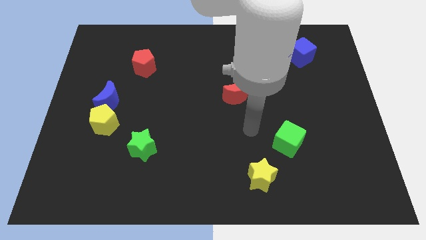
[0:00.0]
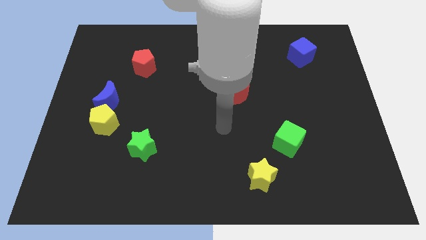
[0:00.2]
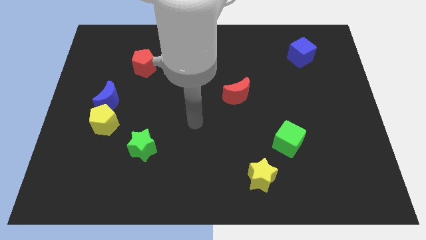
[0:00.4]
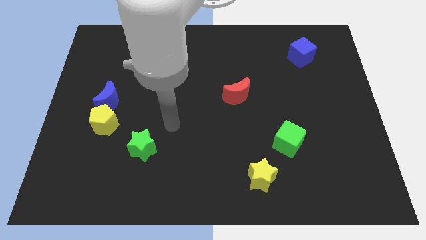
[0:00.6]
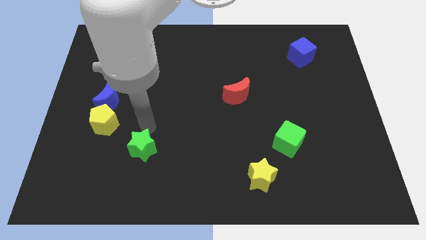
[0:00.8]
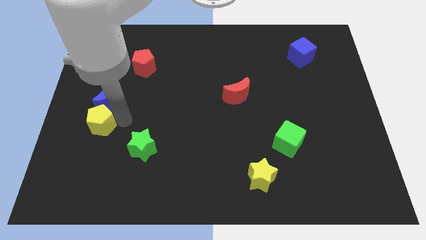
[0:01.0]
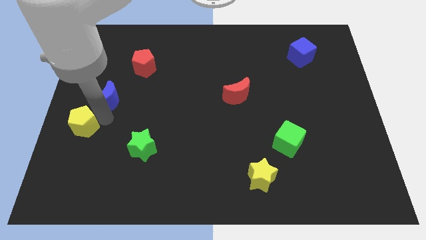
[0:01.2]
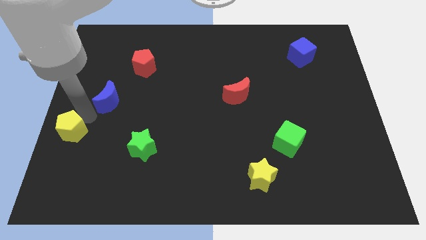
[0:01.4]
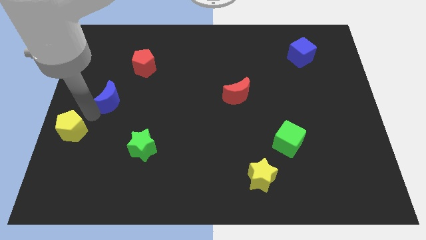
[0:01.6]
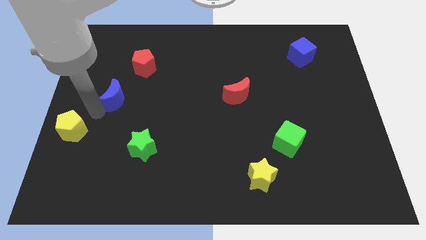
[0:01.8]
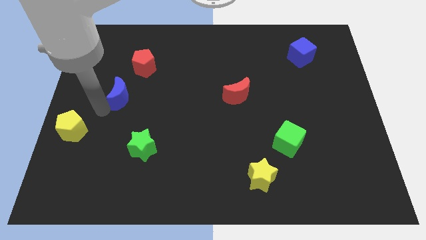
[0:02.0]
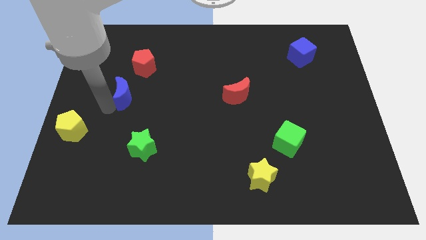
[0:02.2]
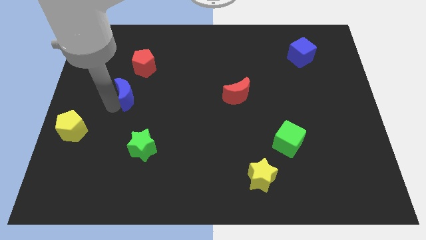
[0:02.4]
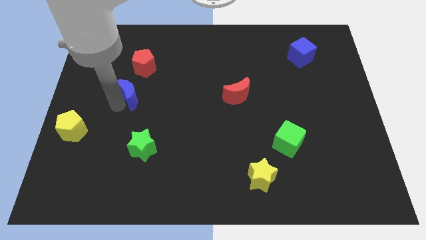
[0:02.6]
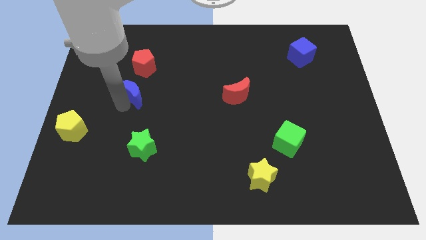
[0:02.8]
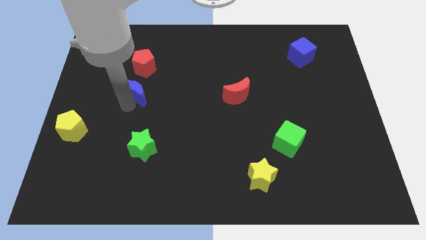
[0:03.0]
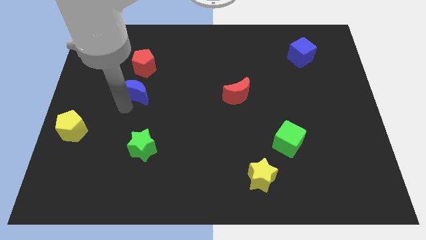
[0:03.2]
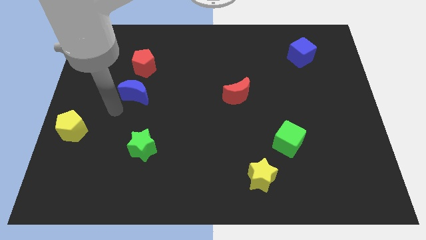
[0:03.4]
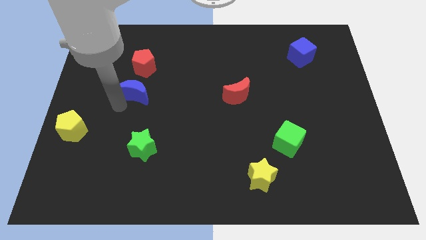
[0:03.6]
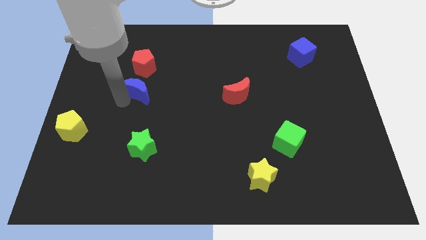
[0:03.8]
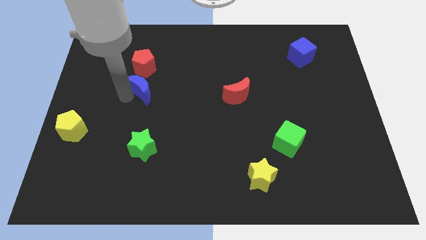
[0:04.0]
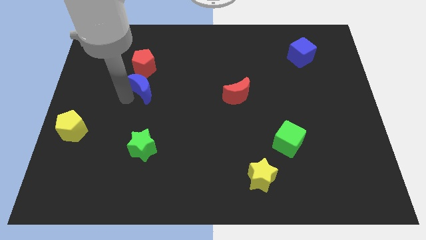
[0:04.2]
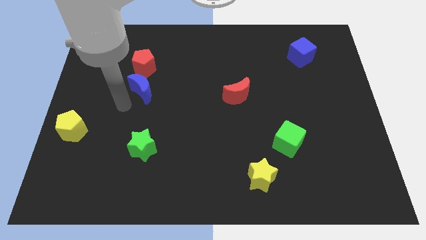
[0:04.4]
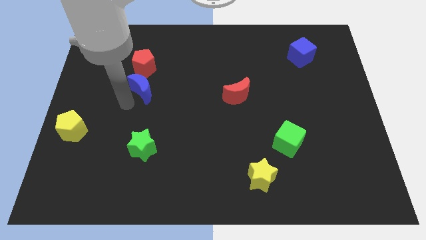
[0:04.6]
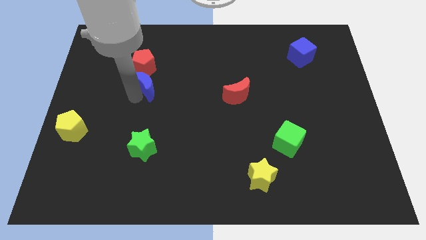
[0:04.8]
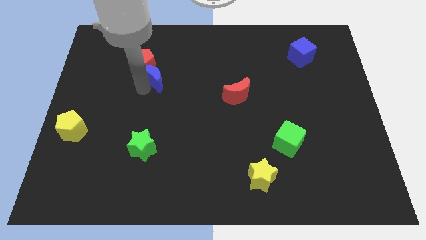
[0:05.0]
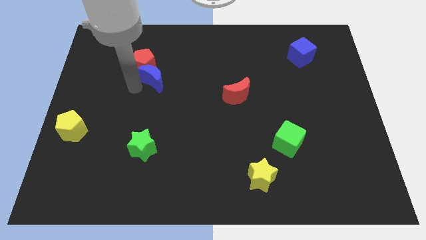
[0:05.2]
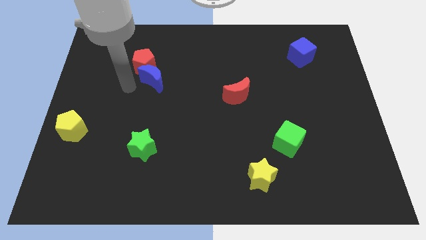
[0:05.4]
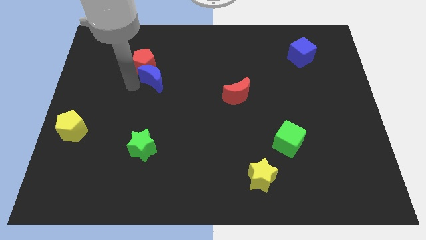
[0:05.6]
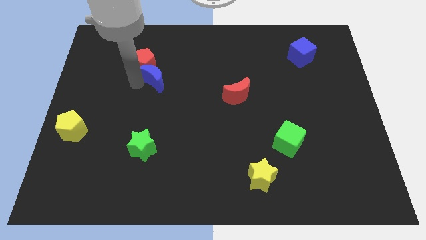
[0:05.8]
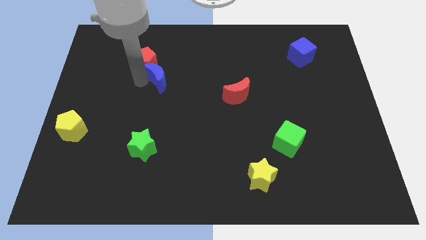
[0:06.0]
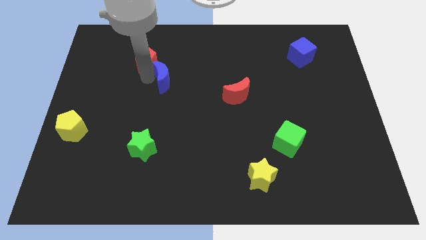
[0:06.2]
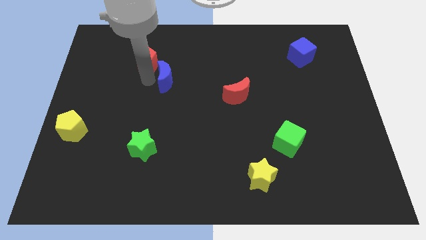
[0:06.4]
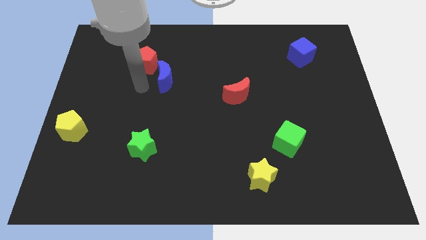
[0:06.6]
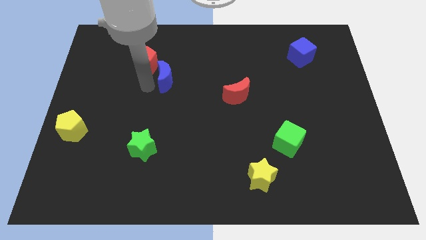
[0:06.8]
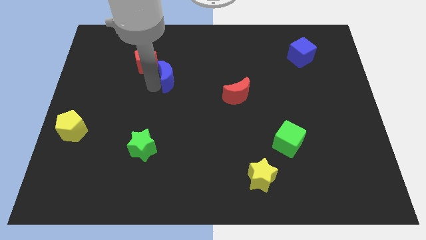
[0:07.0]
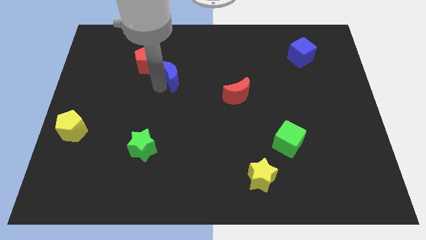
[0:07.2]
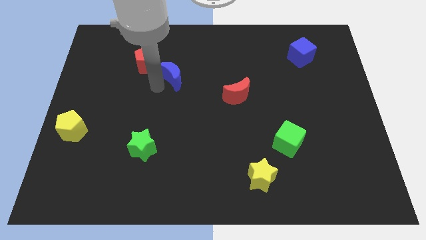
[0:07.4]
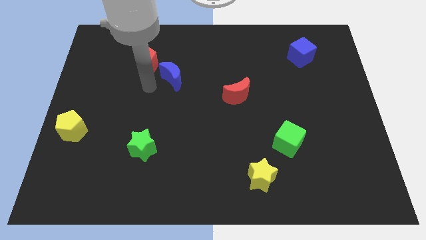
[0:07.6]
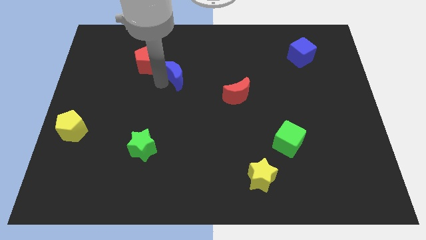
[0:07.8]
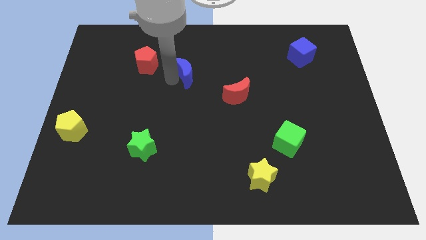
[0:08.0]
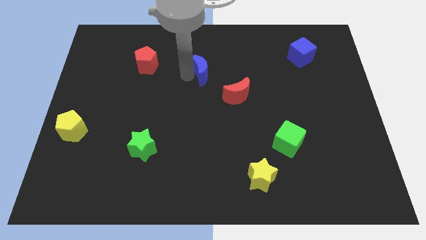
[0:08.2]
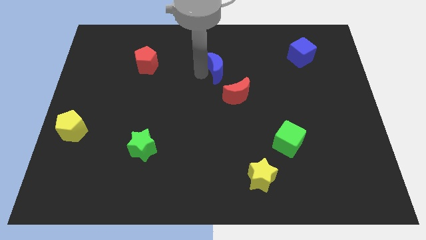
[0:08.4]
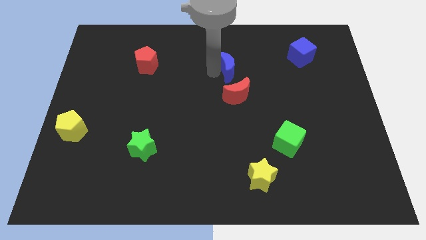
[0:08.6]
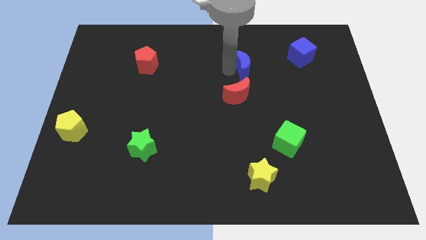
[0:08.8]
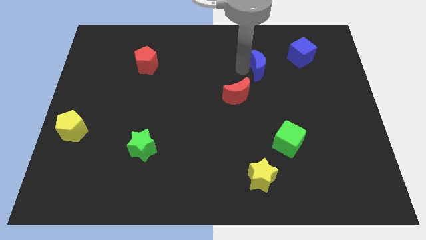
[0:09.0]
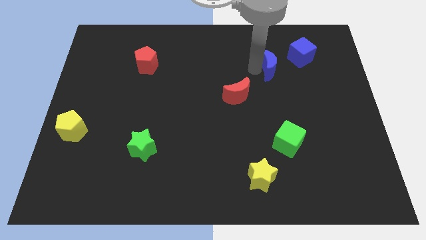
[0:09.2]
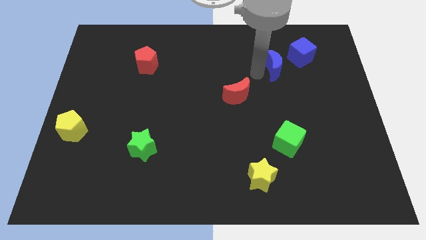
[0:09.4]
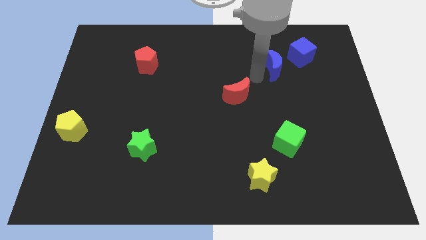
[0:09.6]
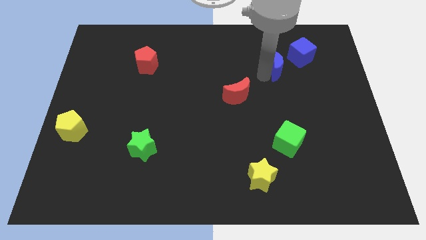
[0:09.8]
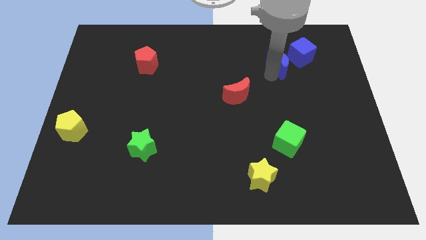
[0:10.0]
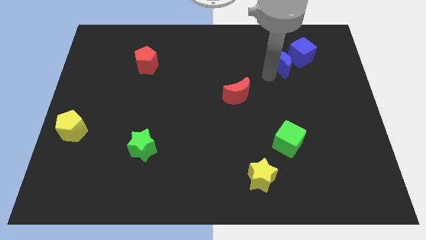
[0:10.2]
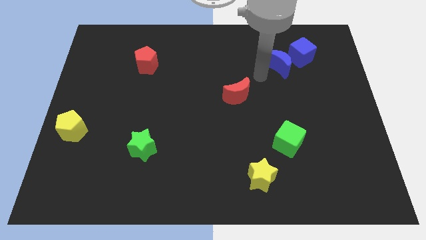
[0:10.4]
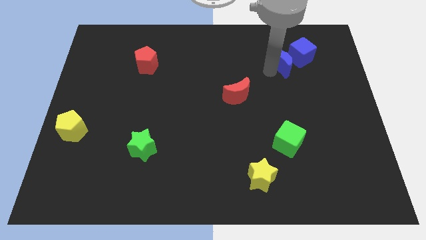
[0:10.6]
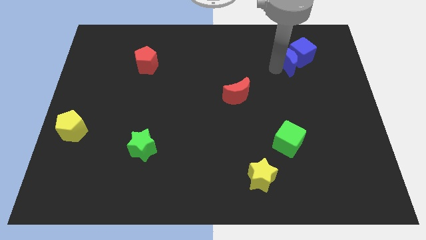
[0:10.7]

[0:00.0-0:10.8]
put the blue moon close to the blue cube

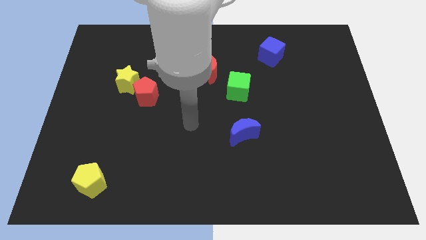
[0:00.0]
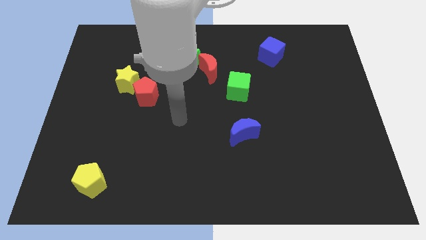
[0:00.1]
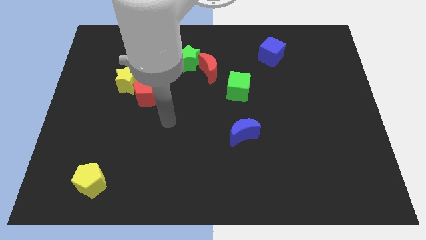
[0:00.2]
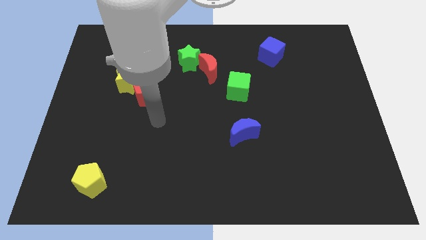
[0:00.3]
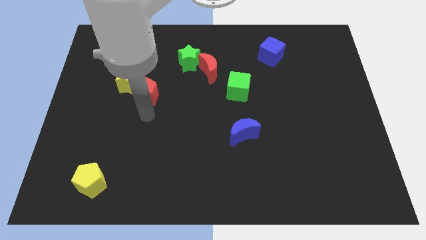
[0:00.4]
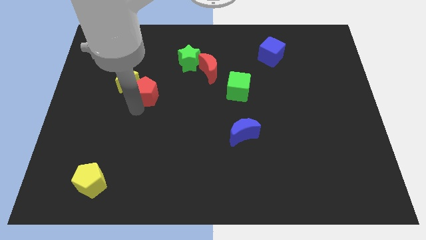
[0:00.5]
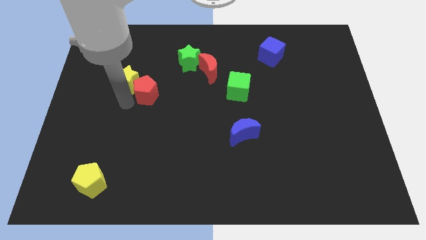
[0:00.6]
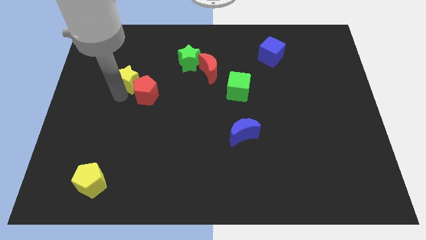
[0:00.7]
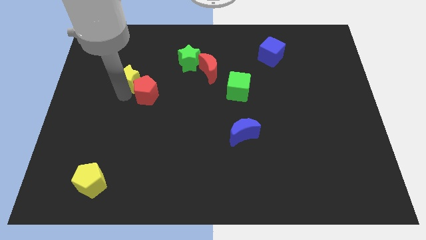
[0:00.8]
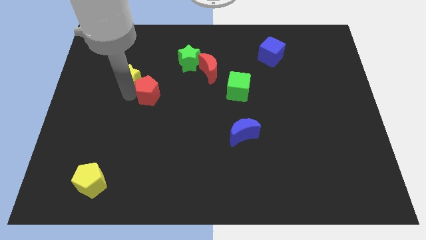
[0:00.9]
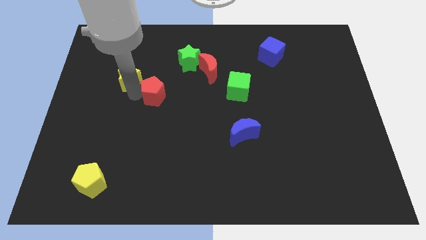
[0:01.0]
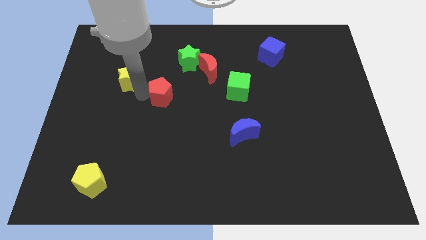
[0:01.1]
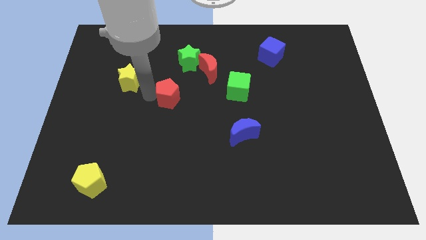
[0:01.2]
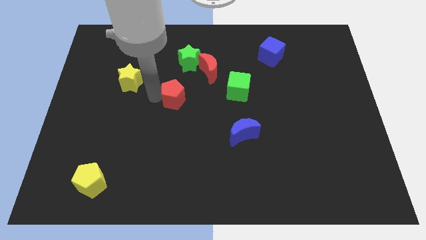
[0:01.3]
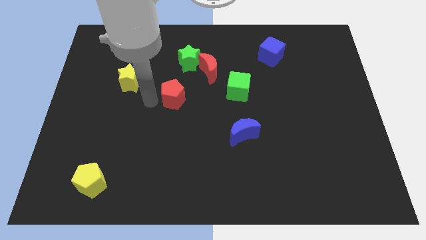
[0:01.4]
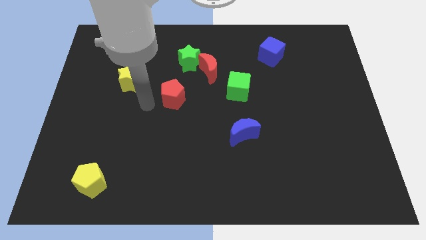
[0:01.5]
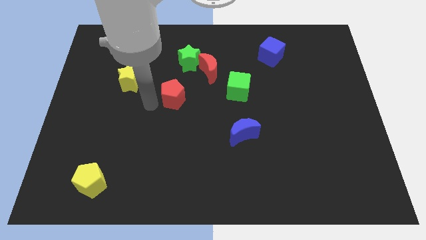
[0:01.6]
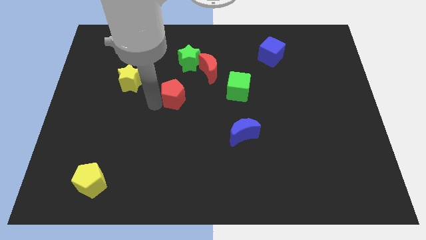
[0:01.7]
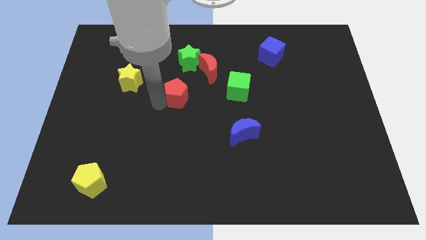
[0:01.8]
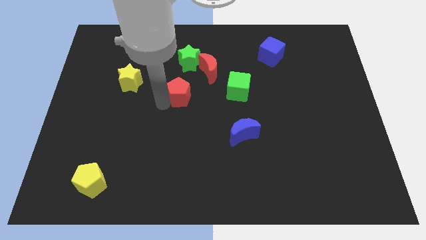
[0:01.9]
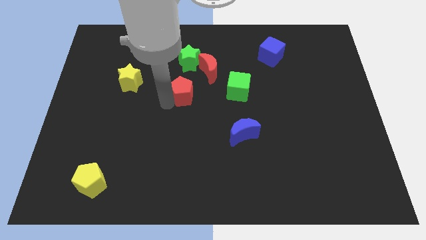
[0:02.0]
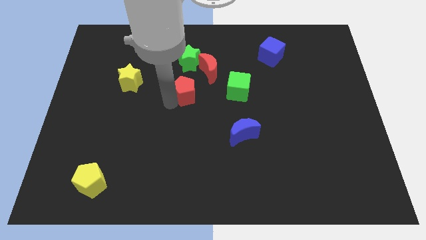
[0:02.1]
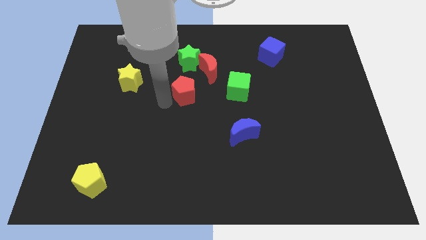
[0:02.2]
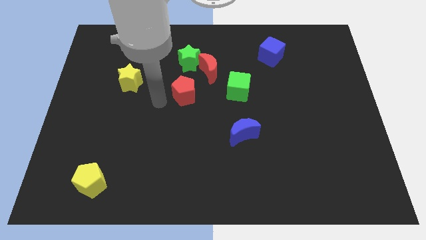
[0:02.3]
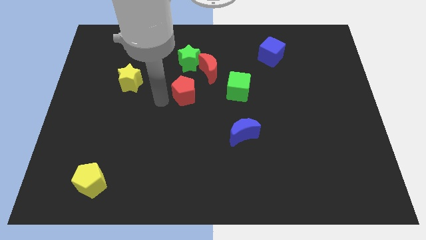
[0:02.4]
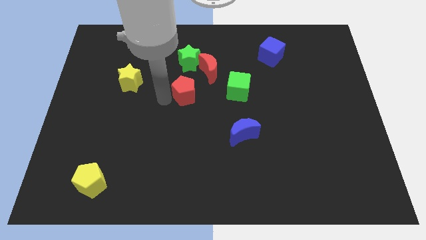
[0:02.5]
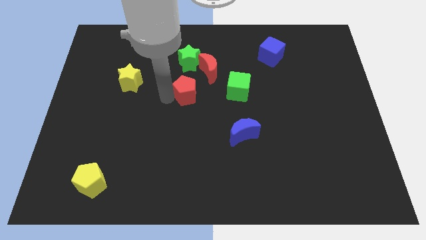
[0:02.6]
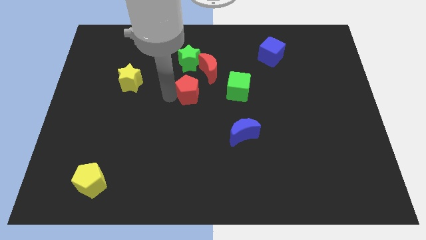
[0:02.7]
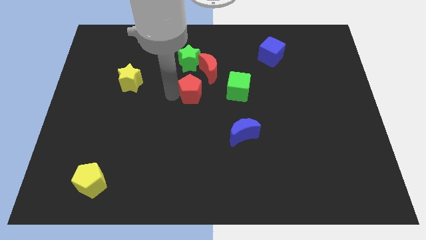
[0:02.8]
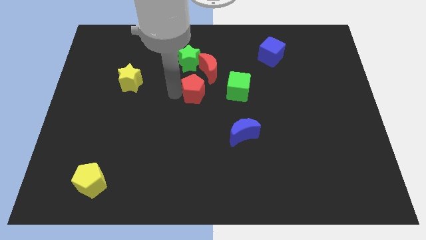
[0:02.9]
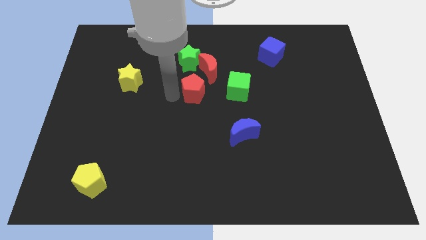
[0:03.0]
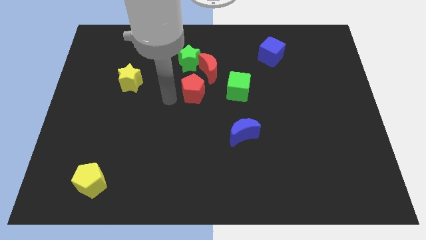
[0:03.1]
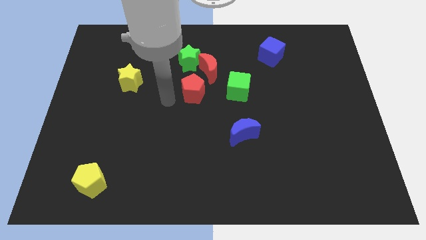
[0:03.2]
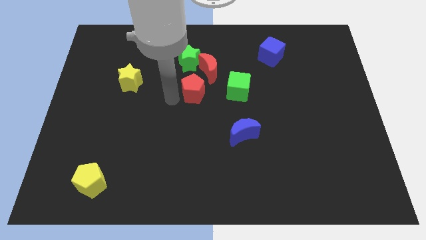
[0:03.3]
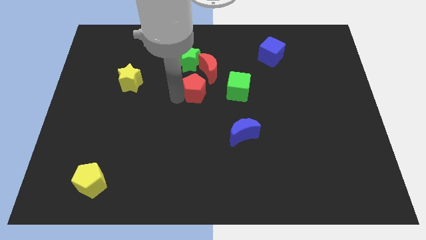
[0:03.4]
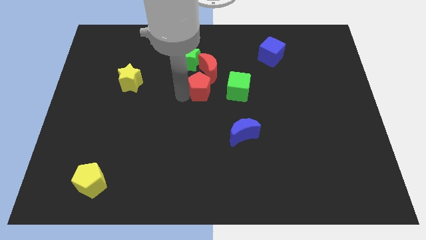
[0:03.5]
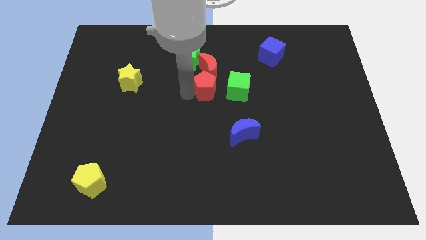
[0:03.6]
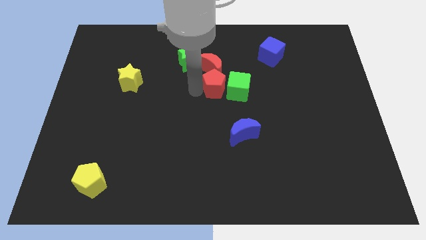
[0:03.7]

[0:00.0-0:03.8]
push the red pentagon towards the green cube
